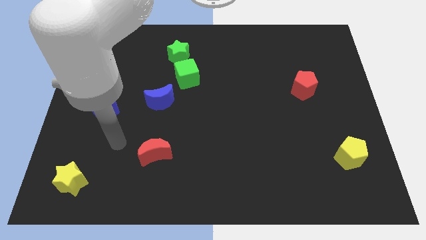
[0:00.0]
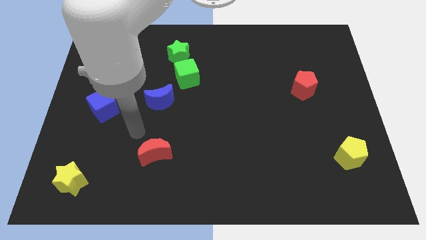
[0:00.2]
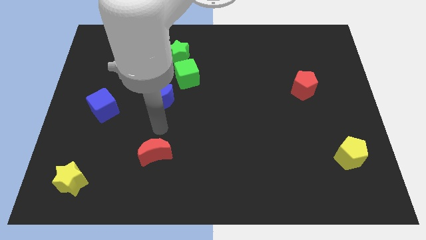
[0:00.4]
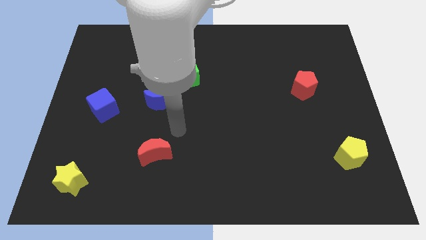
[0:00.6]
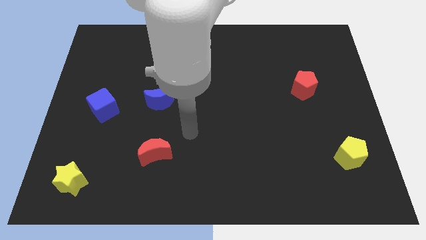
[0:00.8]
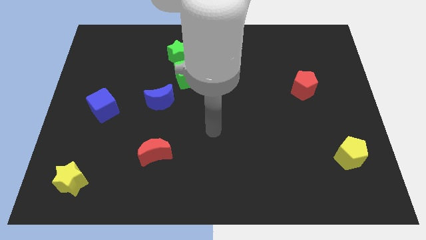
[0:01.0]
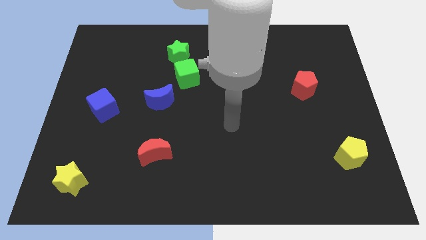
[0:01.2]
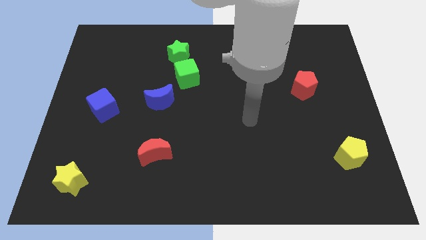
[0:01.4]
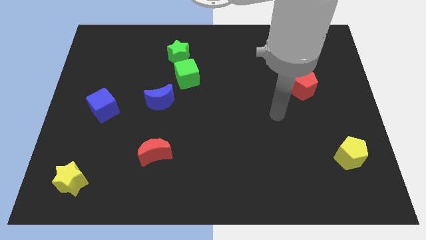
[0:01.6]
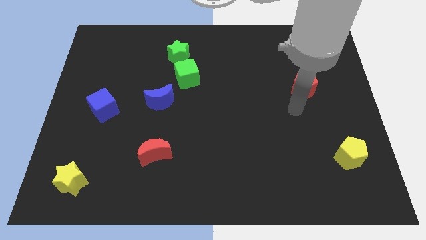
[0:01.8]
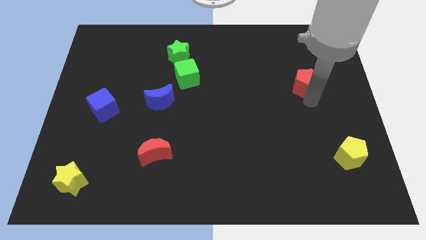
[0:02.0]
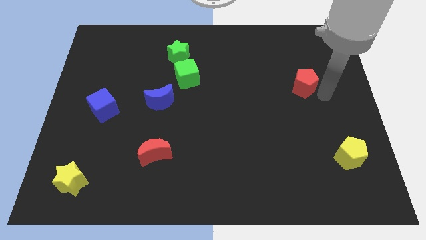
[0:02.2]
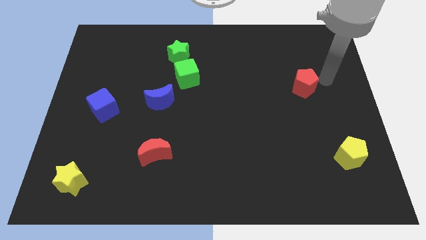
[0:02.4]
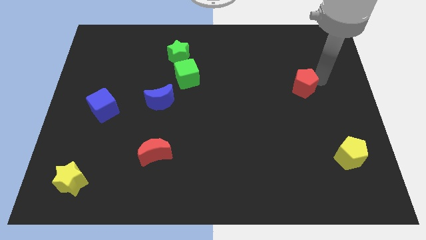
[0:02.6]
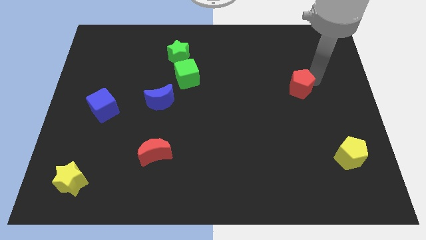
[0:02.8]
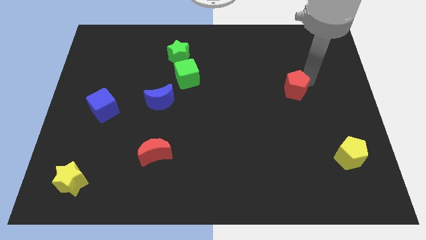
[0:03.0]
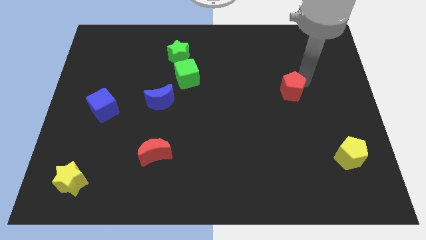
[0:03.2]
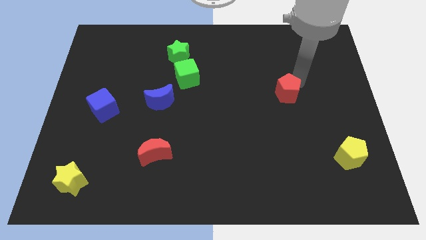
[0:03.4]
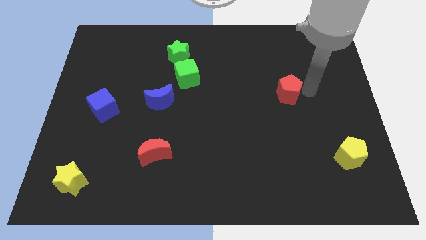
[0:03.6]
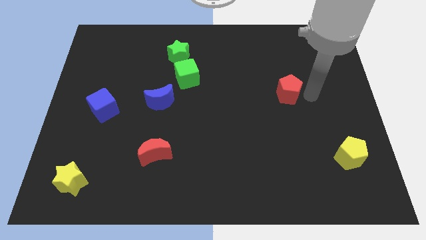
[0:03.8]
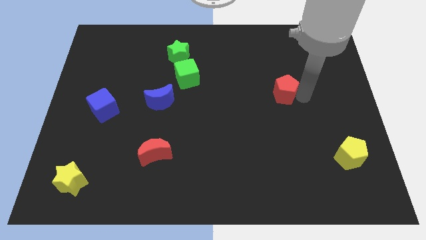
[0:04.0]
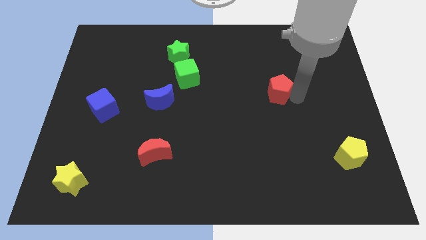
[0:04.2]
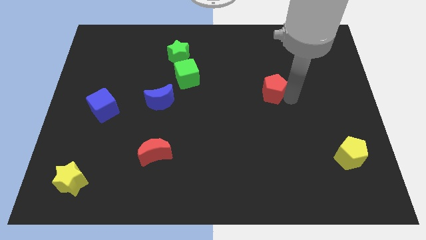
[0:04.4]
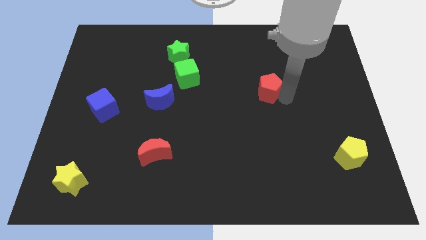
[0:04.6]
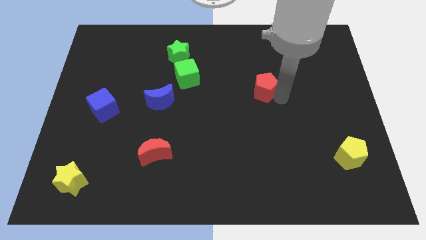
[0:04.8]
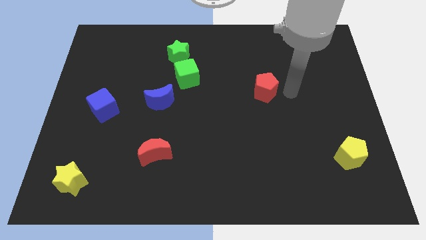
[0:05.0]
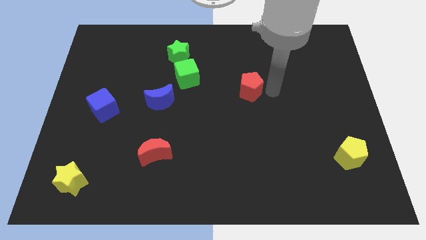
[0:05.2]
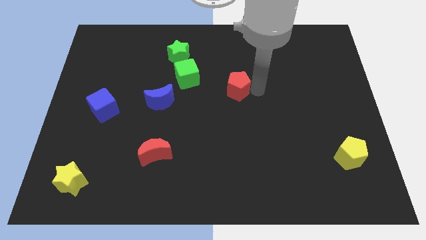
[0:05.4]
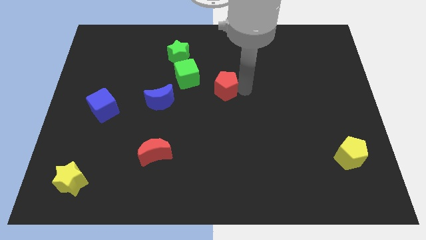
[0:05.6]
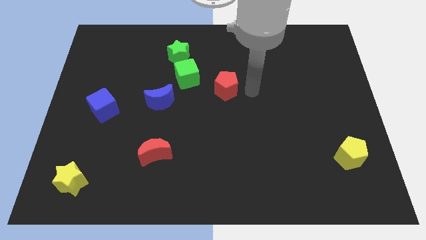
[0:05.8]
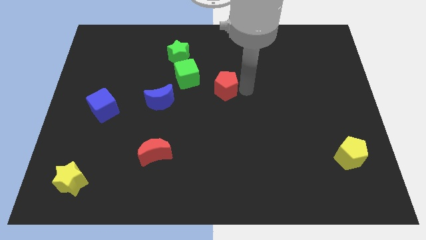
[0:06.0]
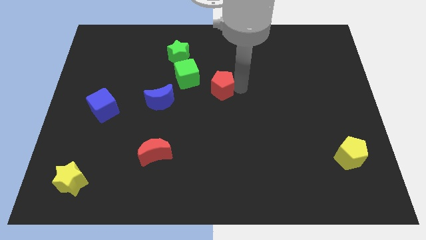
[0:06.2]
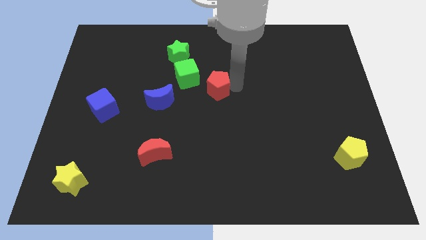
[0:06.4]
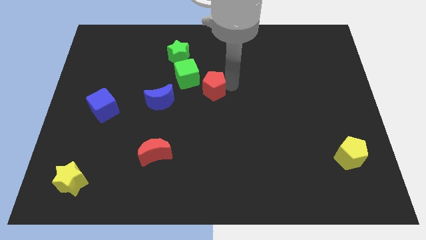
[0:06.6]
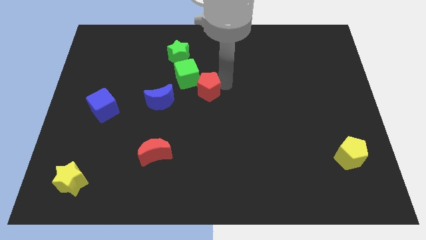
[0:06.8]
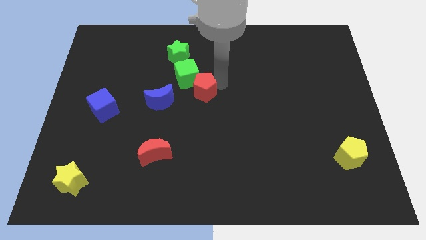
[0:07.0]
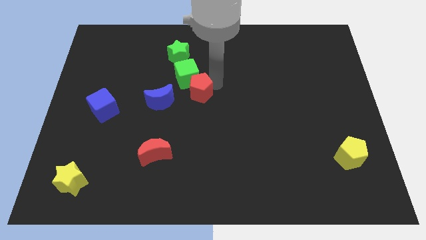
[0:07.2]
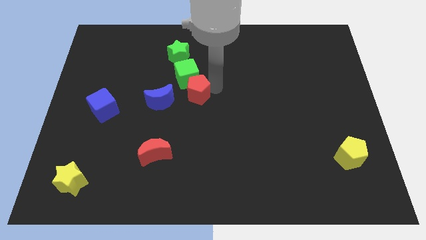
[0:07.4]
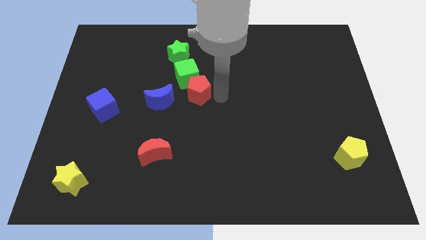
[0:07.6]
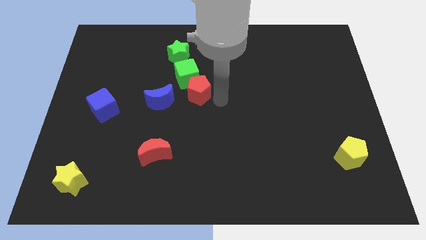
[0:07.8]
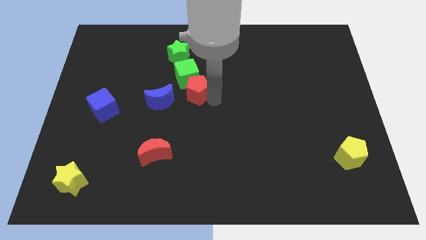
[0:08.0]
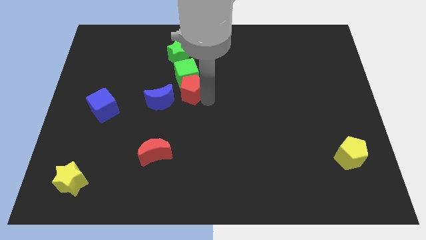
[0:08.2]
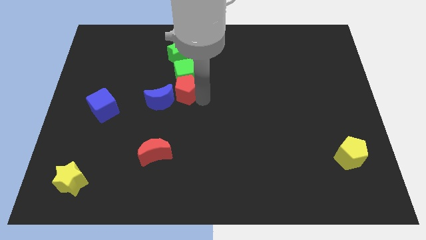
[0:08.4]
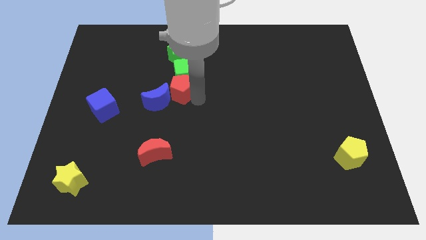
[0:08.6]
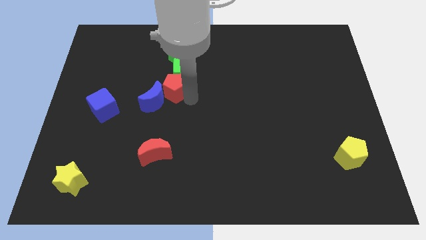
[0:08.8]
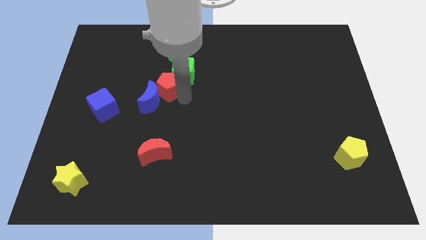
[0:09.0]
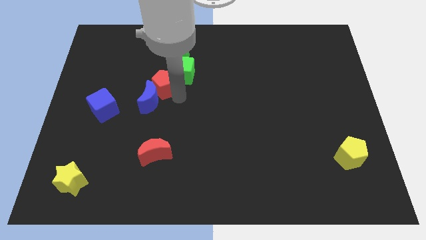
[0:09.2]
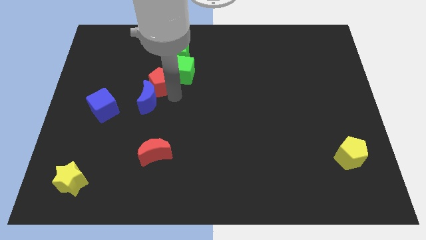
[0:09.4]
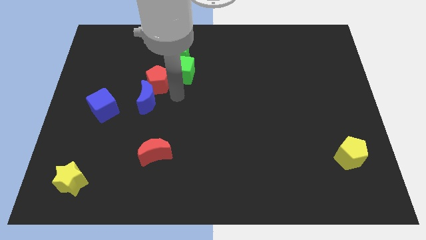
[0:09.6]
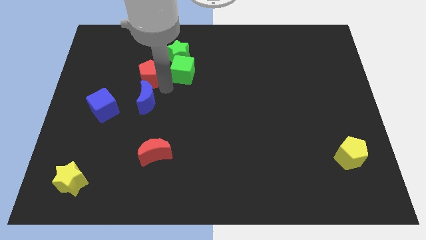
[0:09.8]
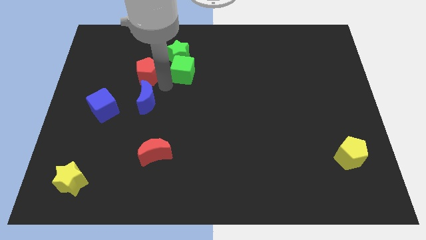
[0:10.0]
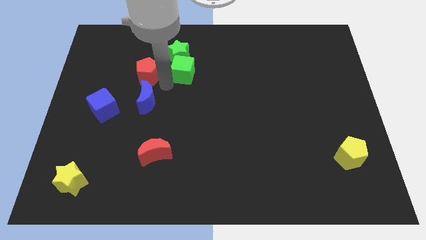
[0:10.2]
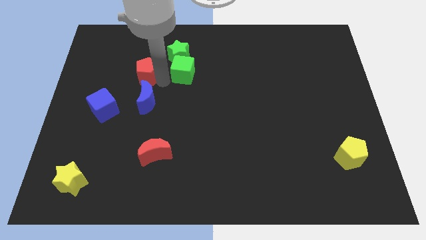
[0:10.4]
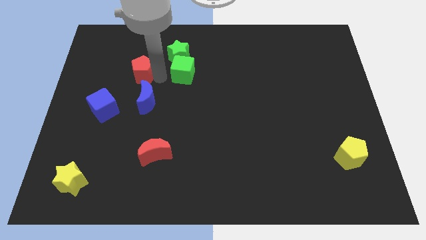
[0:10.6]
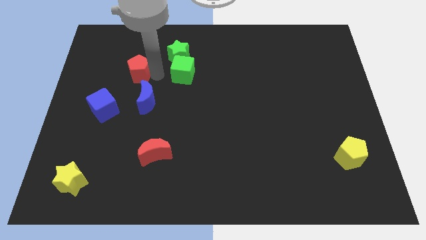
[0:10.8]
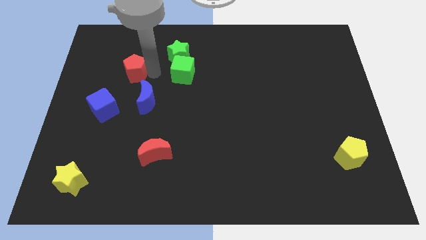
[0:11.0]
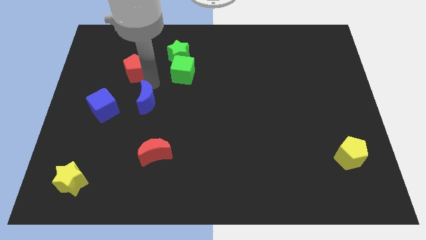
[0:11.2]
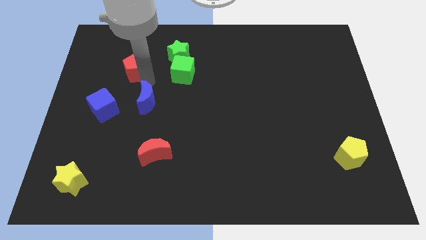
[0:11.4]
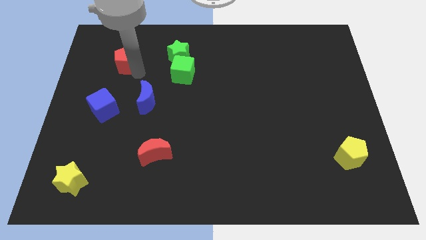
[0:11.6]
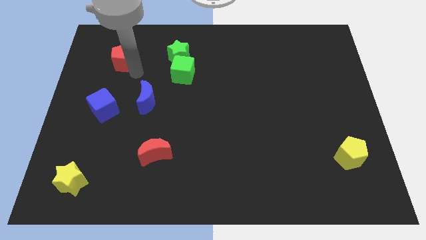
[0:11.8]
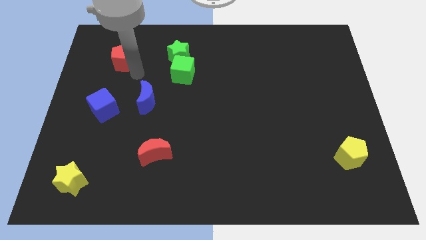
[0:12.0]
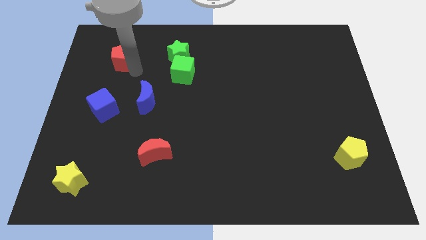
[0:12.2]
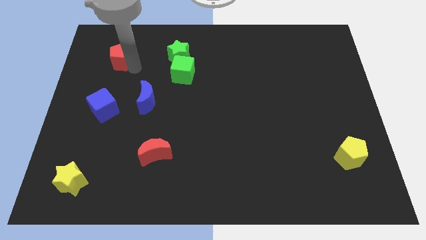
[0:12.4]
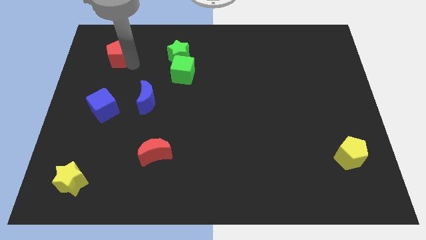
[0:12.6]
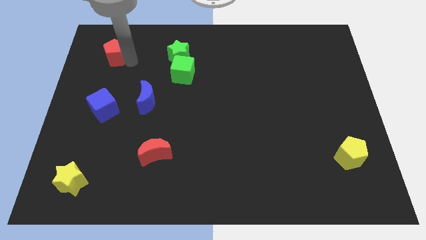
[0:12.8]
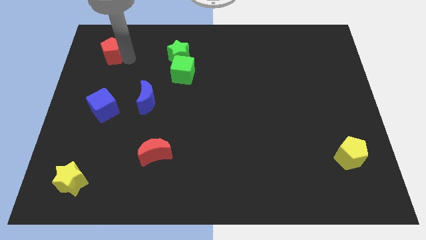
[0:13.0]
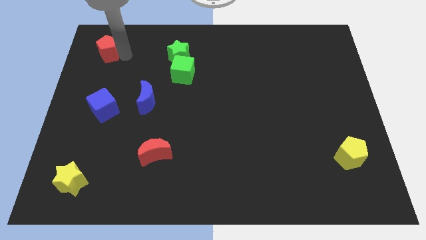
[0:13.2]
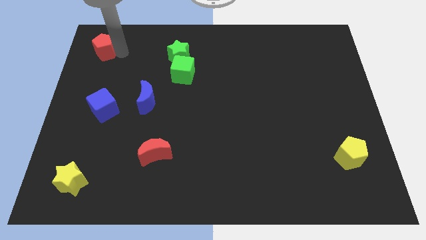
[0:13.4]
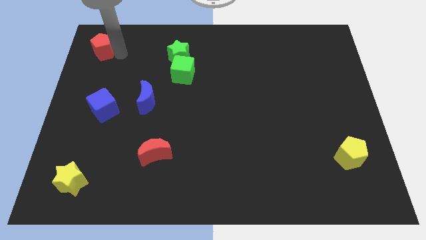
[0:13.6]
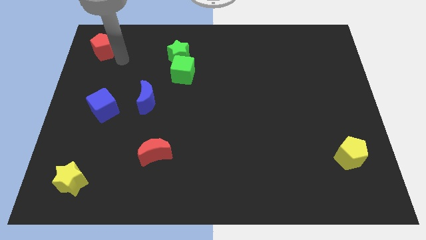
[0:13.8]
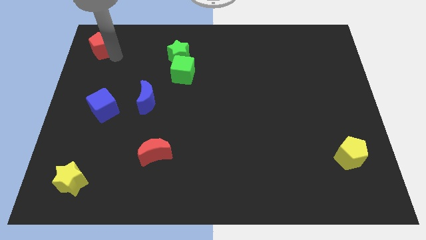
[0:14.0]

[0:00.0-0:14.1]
push the red pentagon to the upper left corner

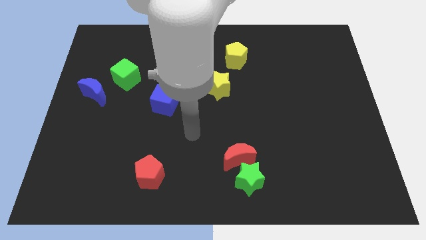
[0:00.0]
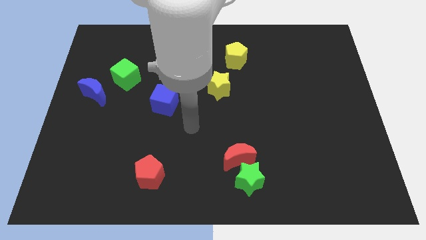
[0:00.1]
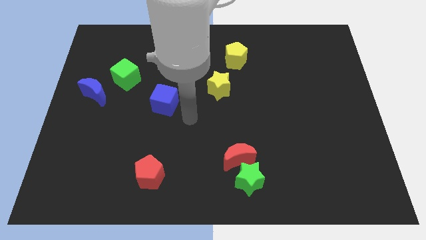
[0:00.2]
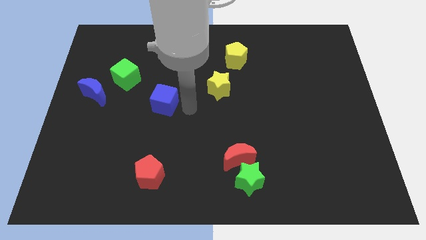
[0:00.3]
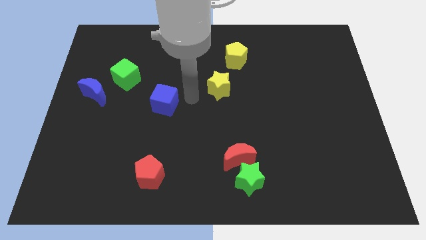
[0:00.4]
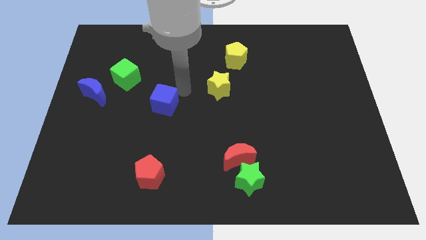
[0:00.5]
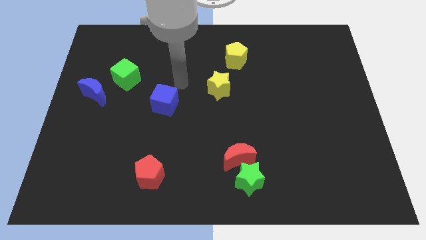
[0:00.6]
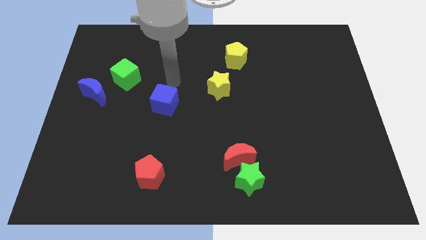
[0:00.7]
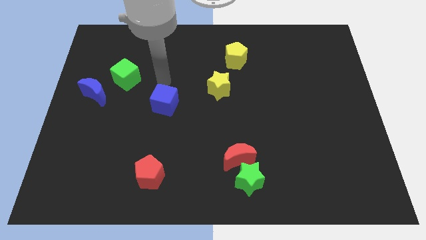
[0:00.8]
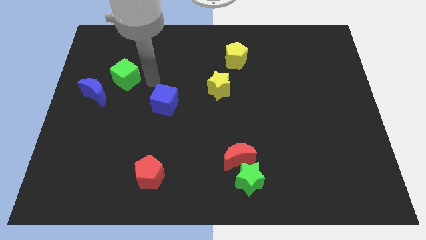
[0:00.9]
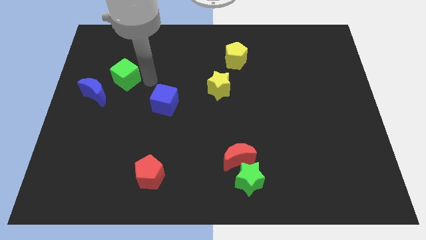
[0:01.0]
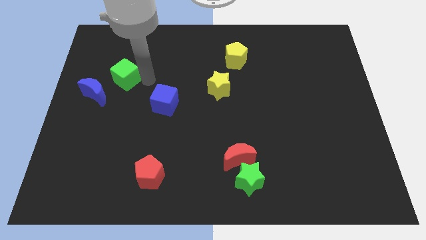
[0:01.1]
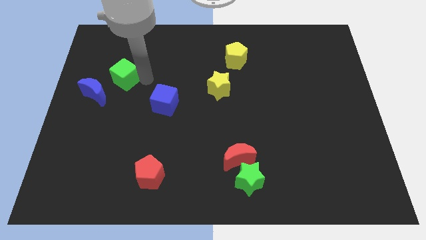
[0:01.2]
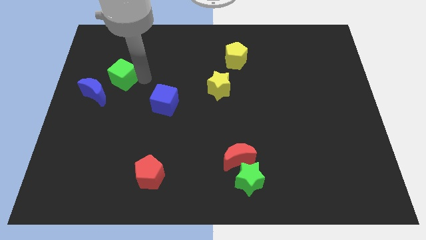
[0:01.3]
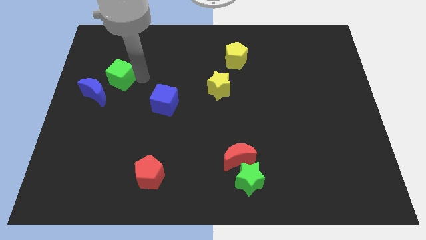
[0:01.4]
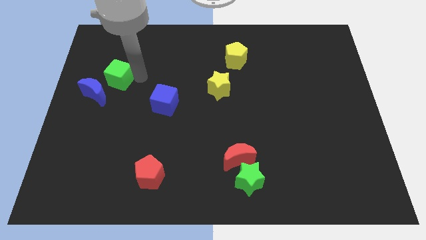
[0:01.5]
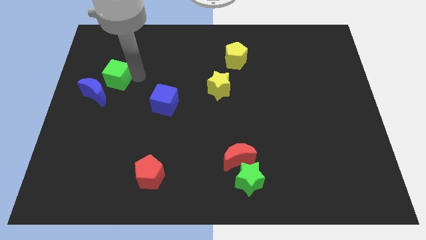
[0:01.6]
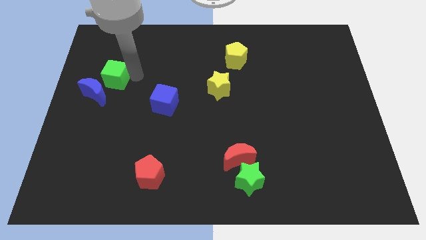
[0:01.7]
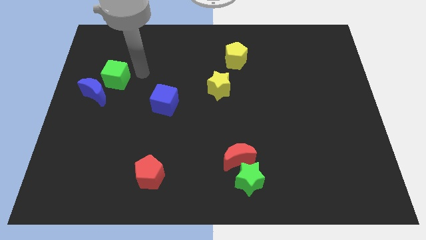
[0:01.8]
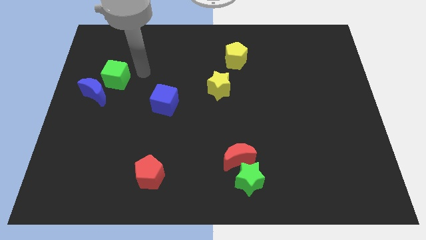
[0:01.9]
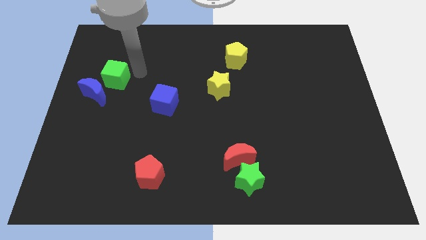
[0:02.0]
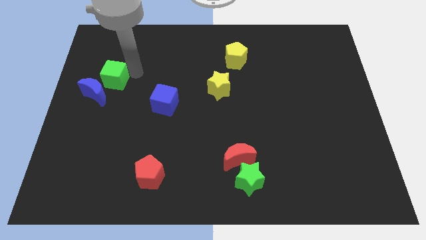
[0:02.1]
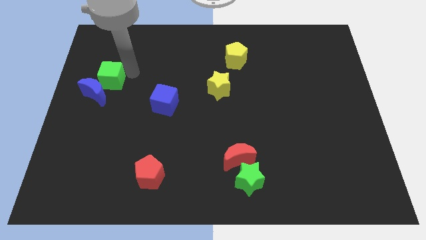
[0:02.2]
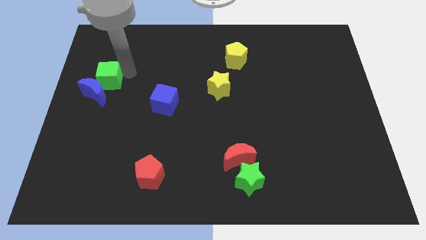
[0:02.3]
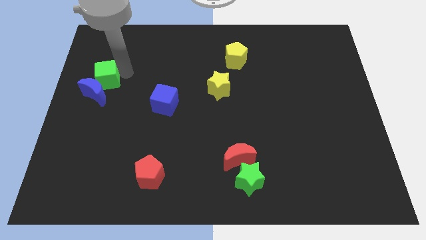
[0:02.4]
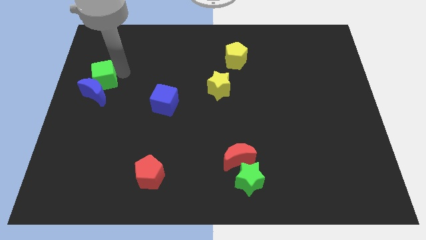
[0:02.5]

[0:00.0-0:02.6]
put the green cube to the center left
